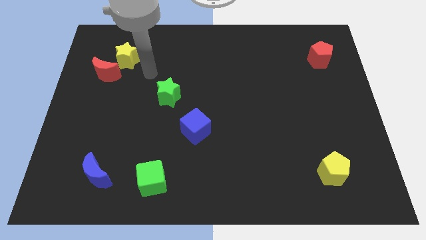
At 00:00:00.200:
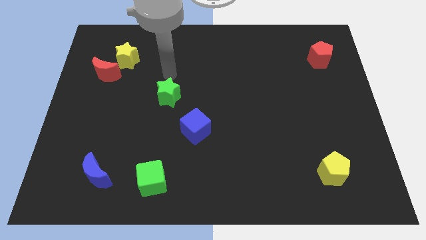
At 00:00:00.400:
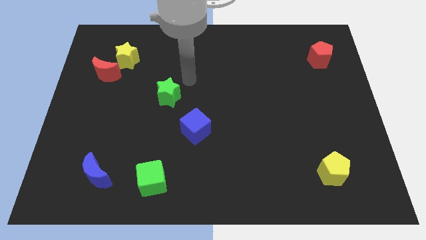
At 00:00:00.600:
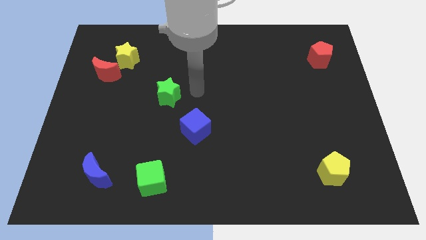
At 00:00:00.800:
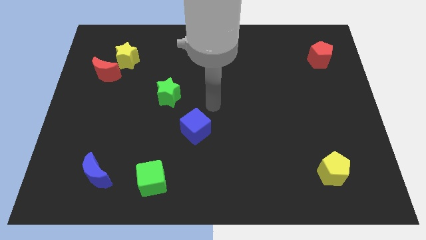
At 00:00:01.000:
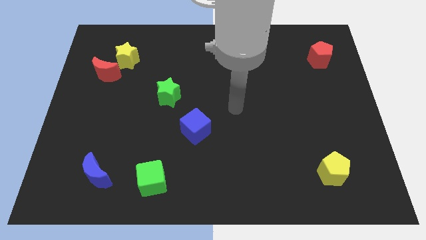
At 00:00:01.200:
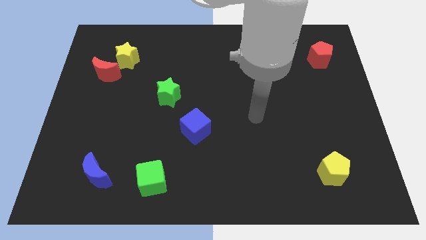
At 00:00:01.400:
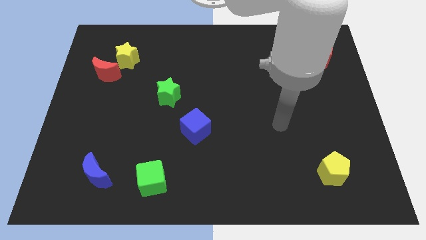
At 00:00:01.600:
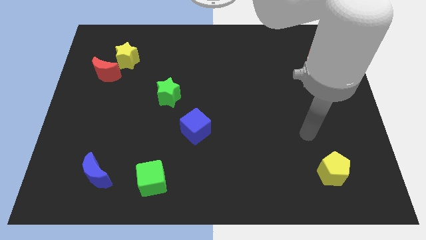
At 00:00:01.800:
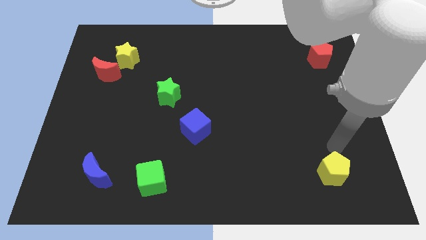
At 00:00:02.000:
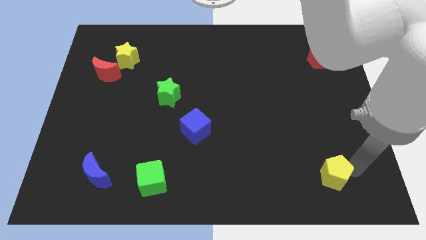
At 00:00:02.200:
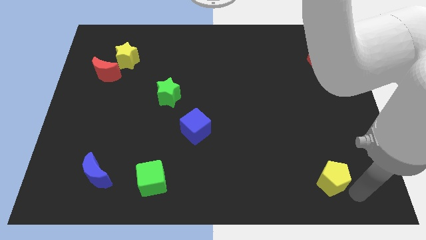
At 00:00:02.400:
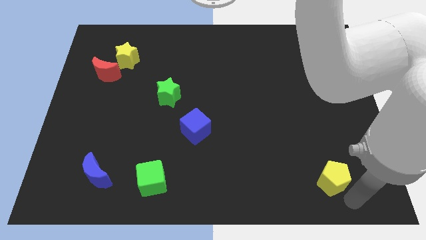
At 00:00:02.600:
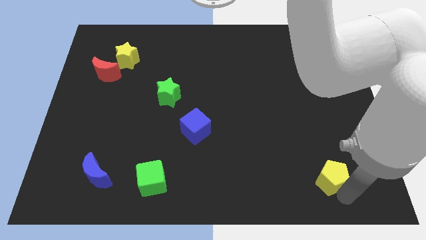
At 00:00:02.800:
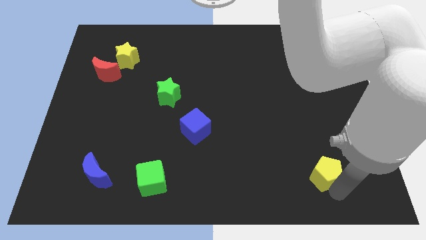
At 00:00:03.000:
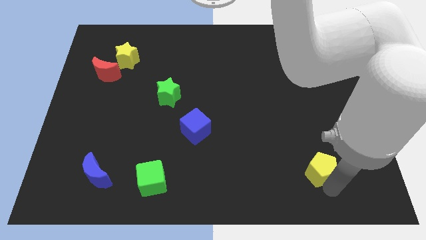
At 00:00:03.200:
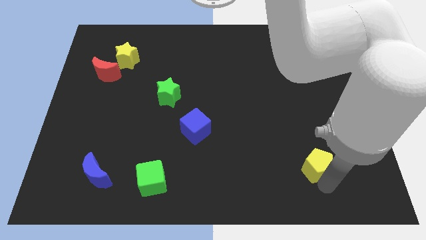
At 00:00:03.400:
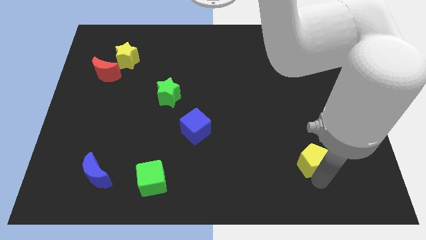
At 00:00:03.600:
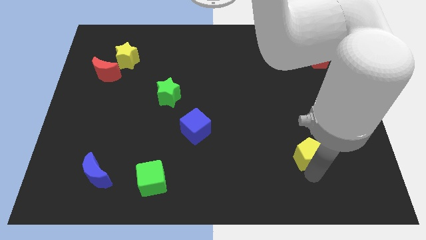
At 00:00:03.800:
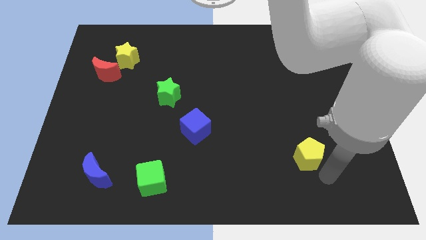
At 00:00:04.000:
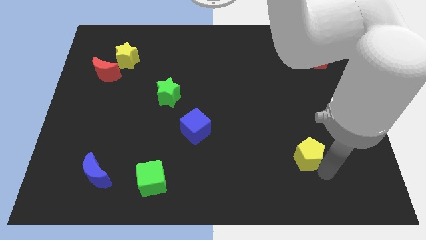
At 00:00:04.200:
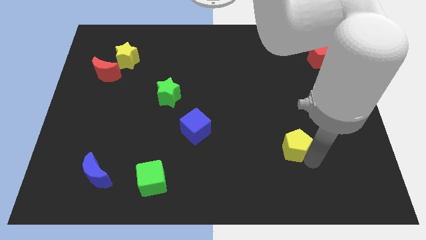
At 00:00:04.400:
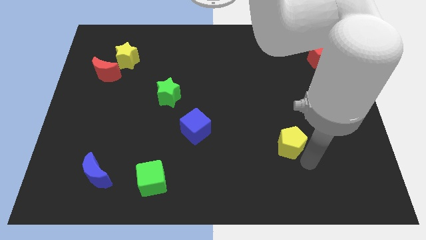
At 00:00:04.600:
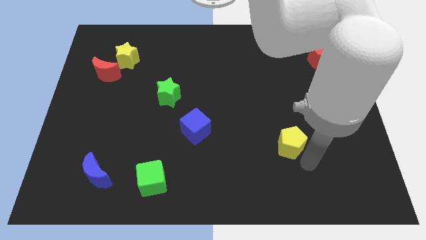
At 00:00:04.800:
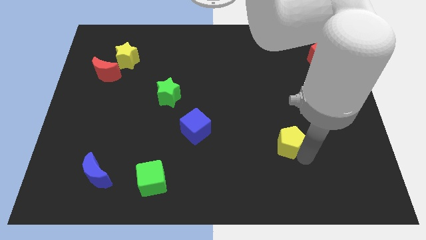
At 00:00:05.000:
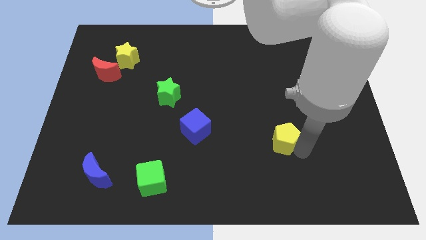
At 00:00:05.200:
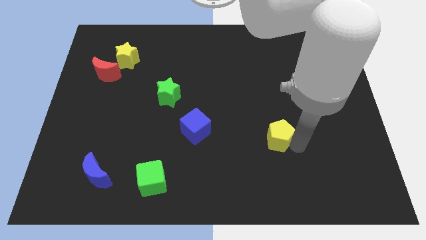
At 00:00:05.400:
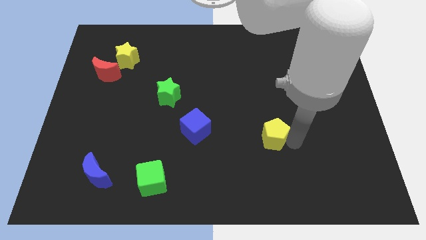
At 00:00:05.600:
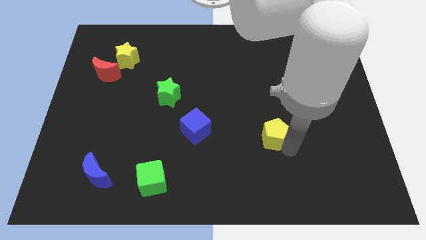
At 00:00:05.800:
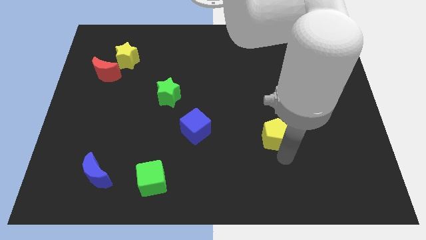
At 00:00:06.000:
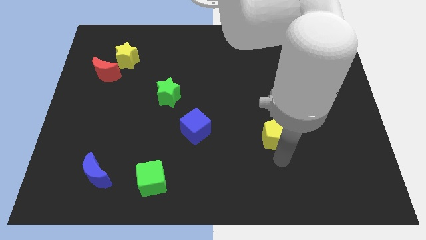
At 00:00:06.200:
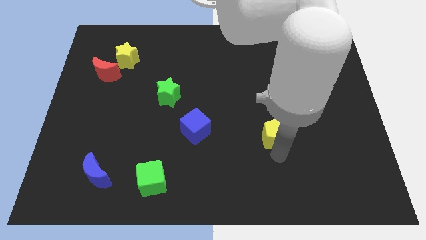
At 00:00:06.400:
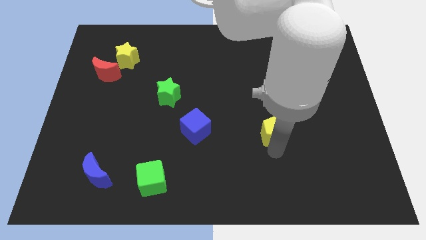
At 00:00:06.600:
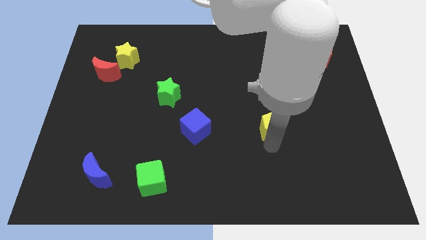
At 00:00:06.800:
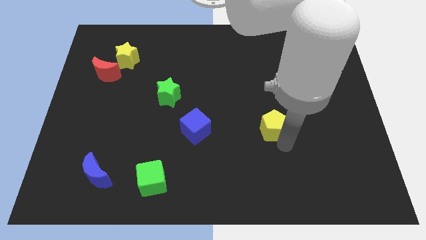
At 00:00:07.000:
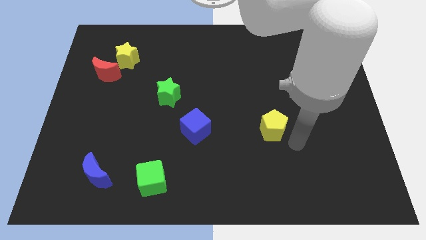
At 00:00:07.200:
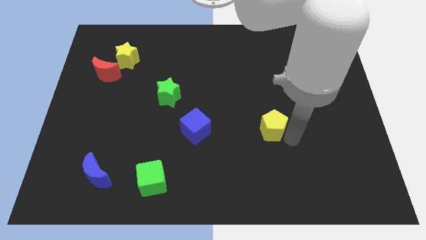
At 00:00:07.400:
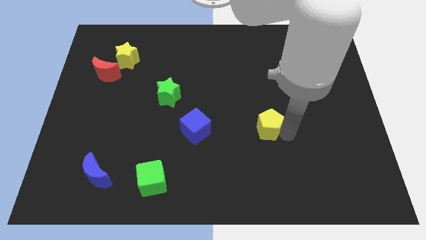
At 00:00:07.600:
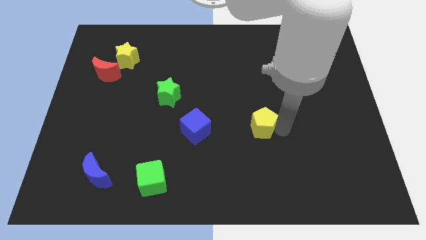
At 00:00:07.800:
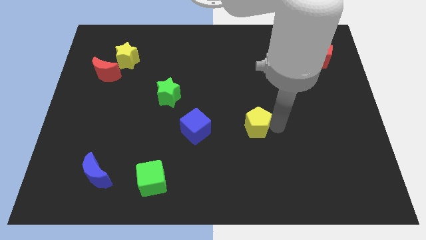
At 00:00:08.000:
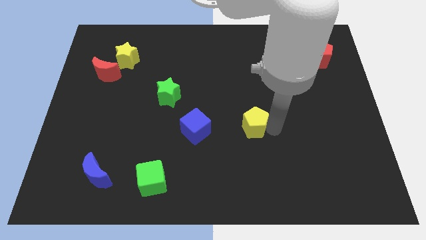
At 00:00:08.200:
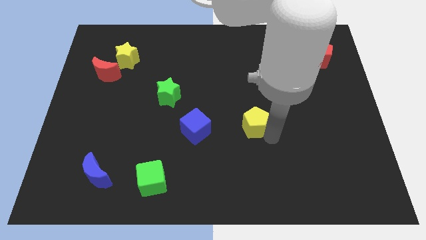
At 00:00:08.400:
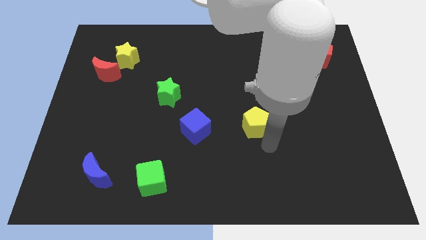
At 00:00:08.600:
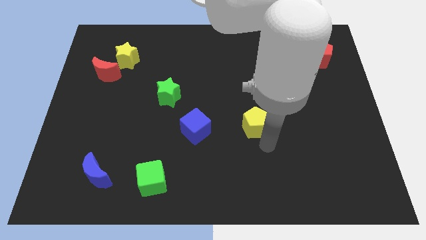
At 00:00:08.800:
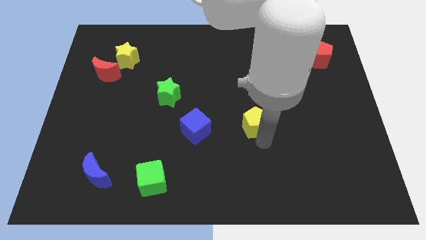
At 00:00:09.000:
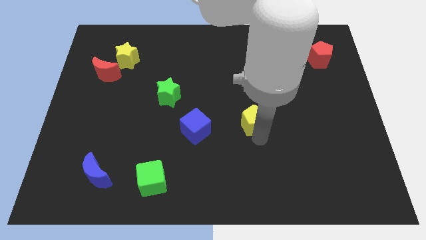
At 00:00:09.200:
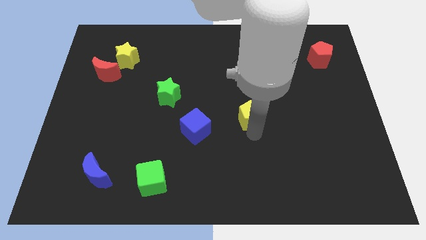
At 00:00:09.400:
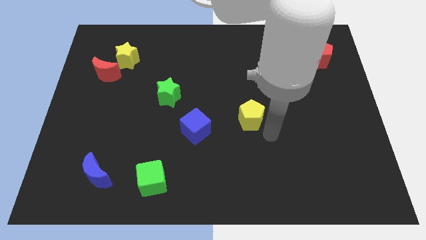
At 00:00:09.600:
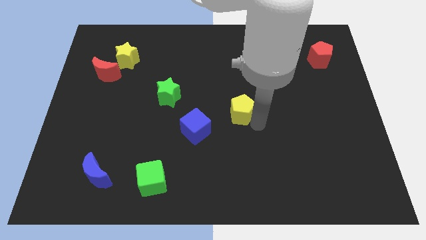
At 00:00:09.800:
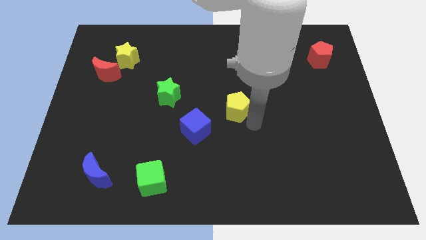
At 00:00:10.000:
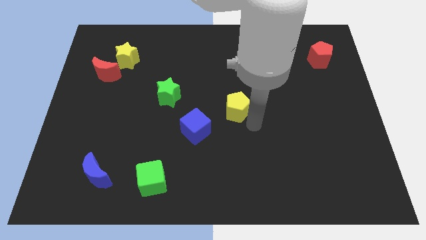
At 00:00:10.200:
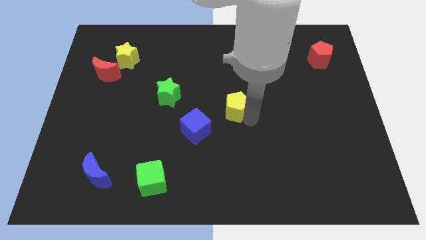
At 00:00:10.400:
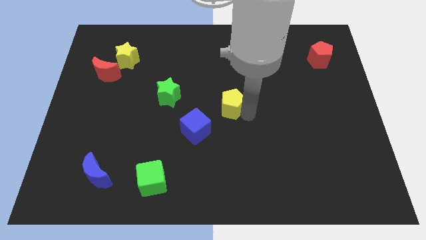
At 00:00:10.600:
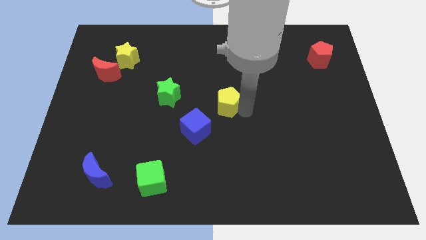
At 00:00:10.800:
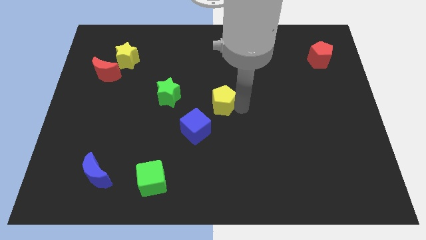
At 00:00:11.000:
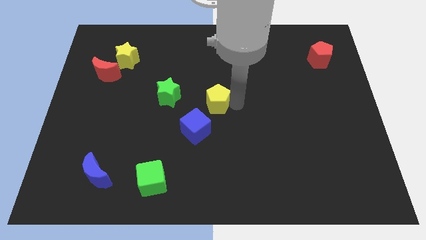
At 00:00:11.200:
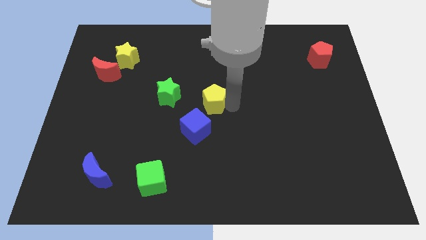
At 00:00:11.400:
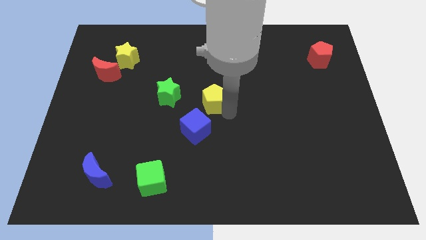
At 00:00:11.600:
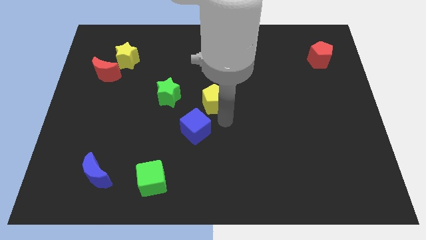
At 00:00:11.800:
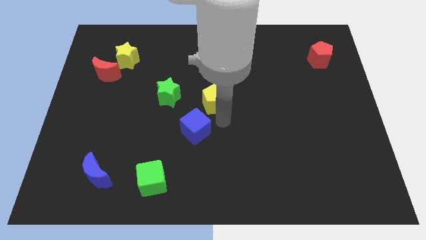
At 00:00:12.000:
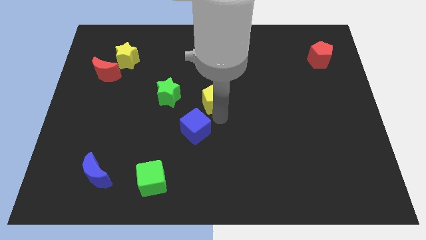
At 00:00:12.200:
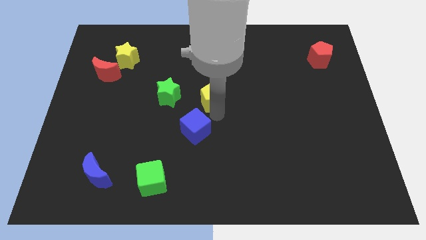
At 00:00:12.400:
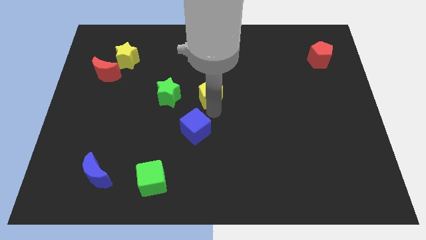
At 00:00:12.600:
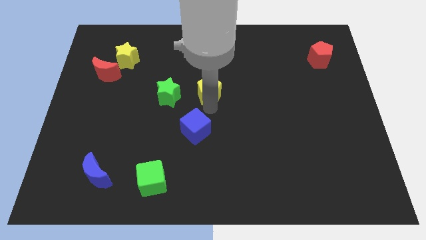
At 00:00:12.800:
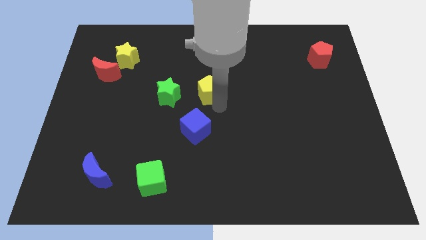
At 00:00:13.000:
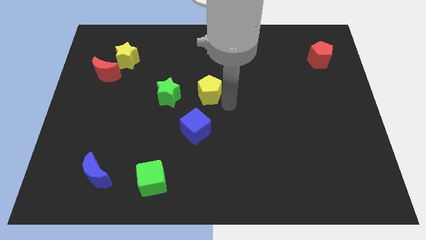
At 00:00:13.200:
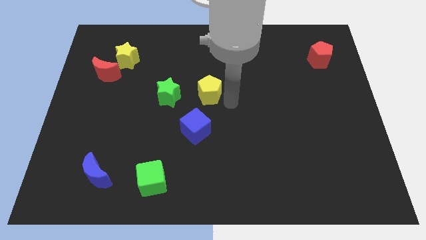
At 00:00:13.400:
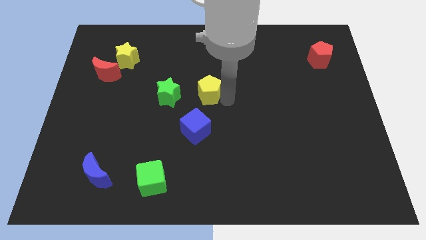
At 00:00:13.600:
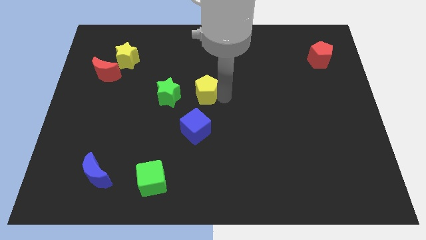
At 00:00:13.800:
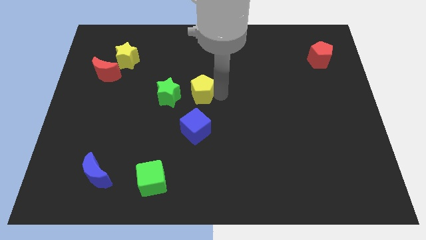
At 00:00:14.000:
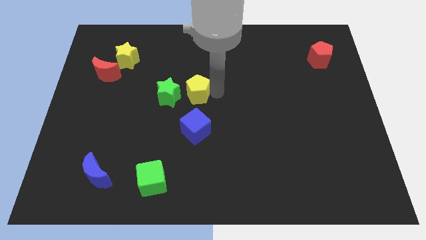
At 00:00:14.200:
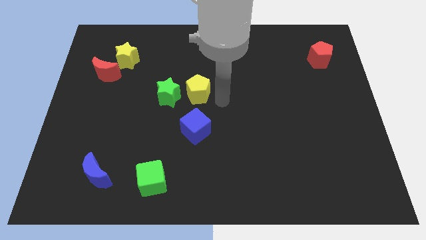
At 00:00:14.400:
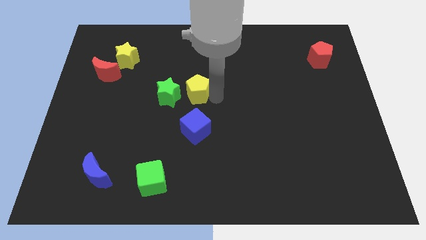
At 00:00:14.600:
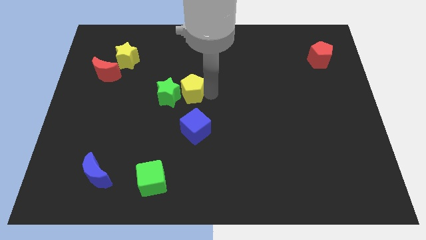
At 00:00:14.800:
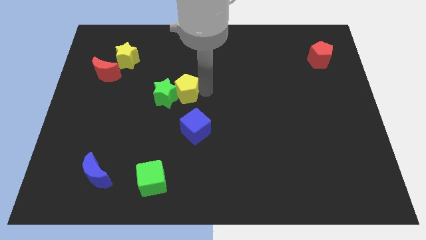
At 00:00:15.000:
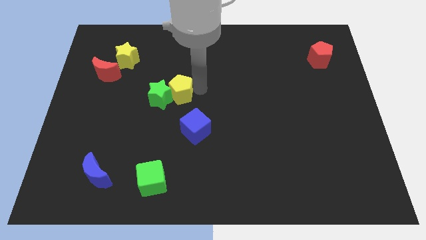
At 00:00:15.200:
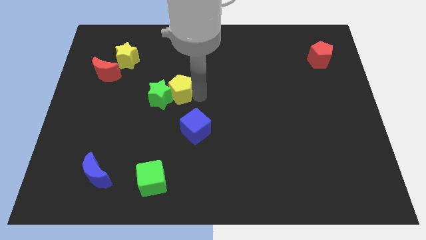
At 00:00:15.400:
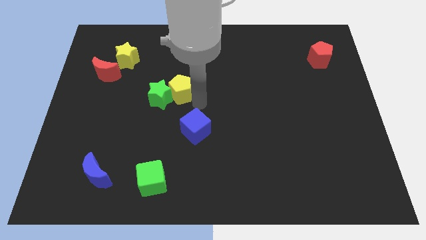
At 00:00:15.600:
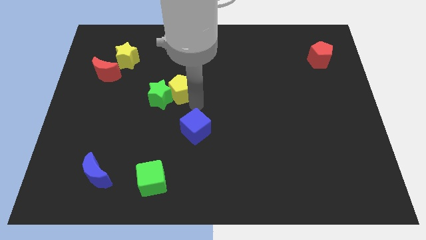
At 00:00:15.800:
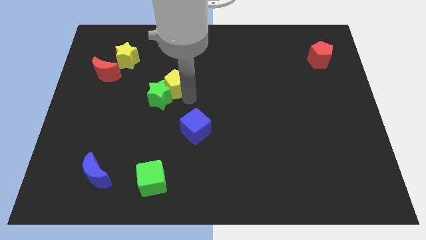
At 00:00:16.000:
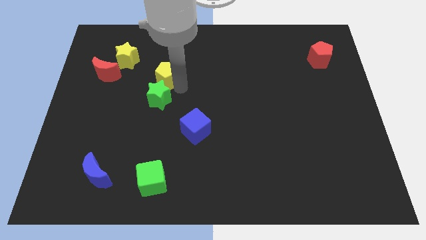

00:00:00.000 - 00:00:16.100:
put the yellow pentagon to the right side of the red moon
